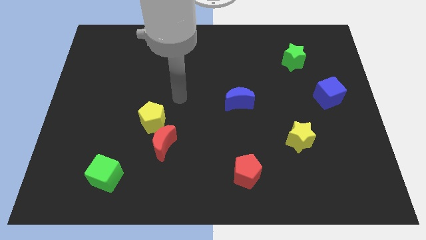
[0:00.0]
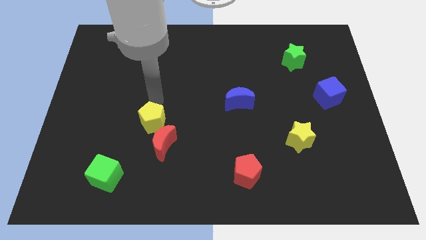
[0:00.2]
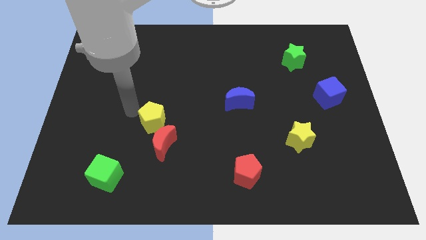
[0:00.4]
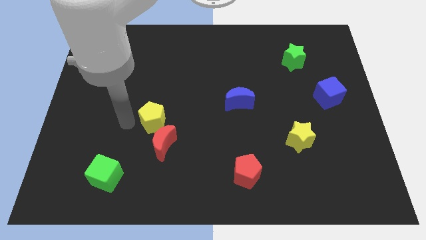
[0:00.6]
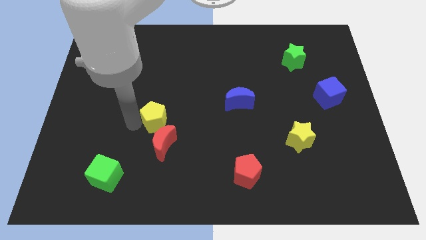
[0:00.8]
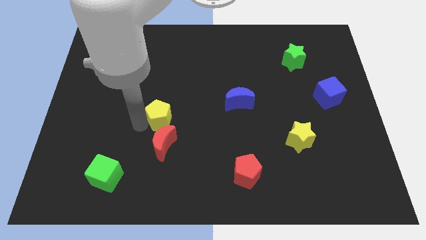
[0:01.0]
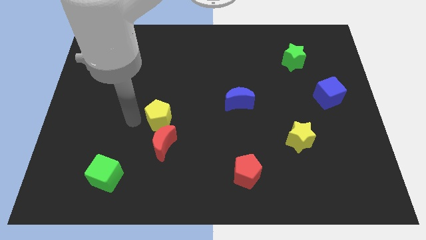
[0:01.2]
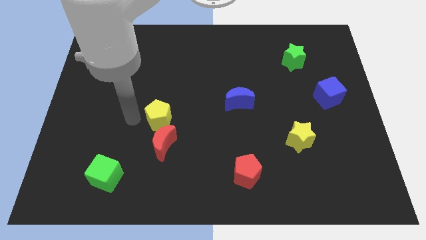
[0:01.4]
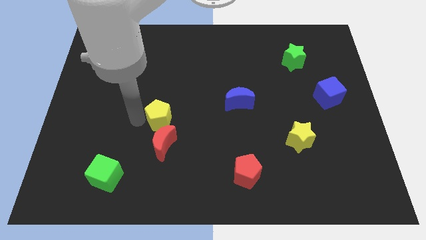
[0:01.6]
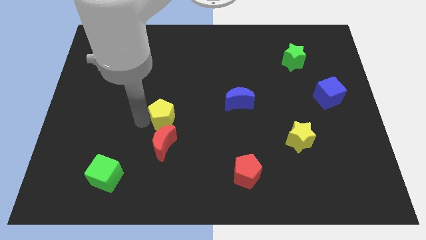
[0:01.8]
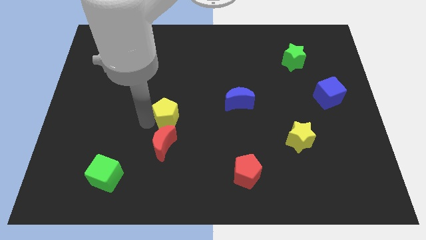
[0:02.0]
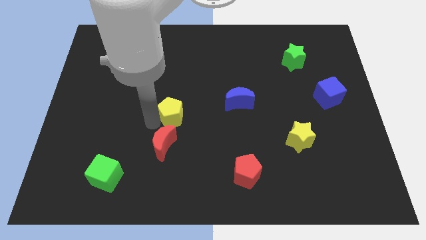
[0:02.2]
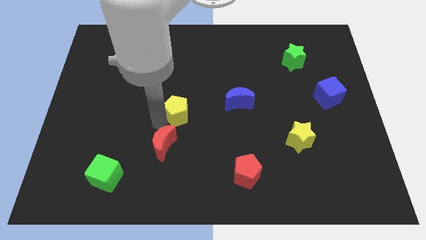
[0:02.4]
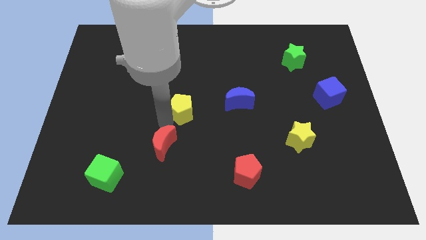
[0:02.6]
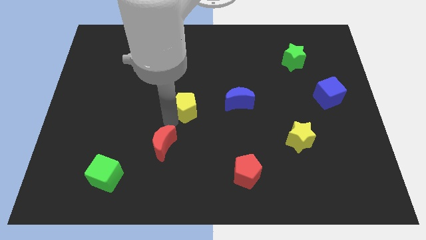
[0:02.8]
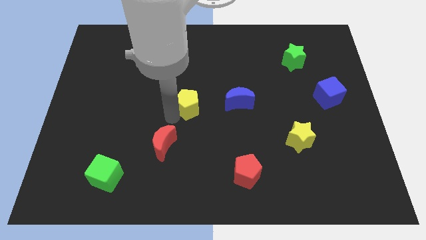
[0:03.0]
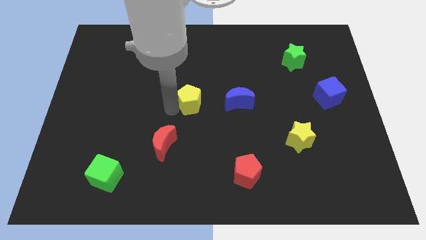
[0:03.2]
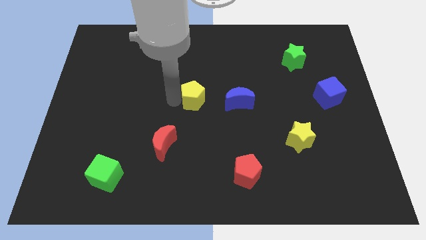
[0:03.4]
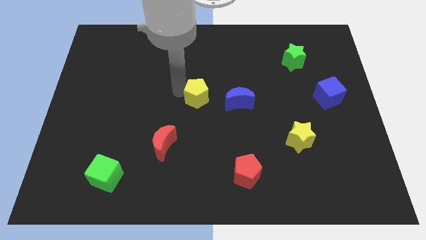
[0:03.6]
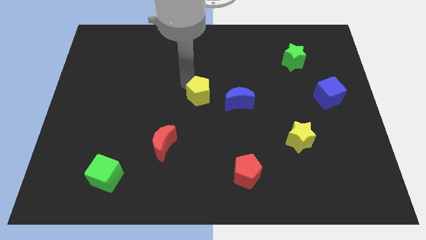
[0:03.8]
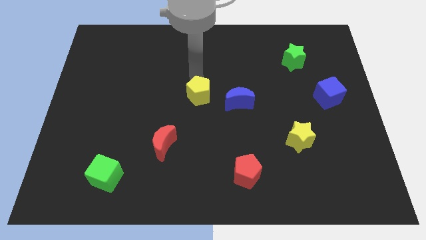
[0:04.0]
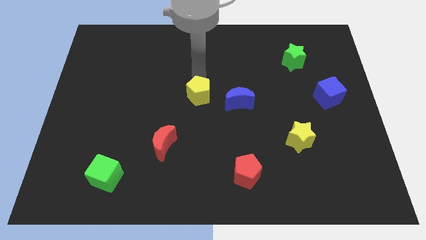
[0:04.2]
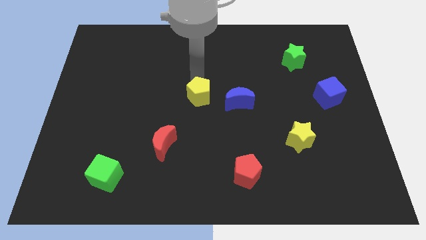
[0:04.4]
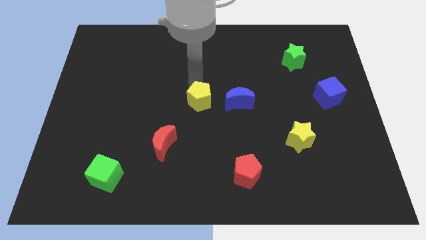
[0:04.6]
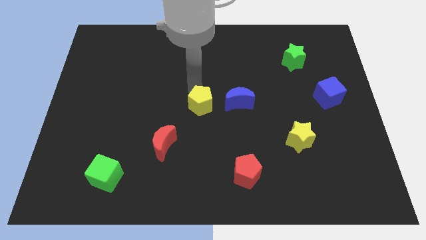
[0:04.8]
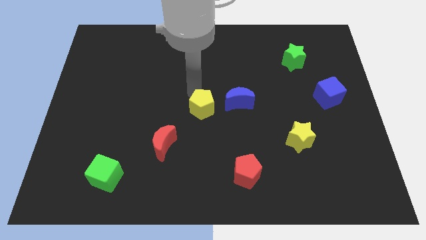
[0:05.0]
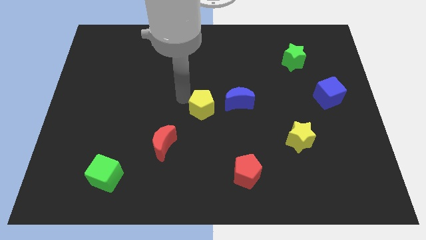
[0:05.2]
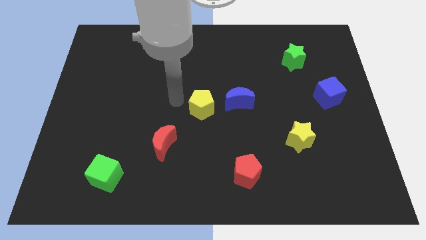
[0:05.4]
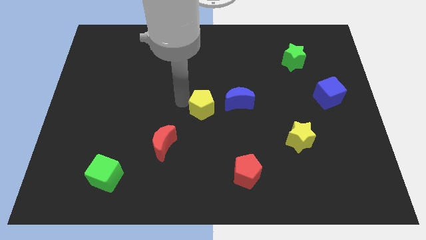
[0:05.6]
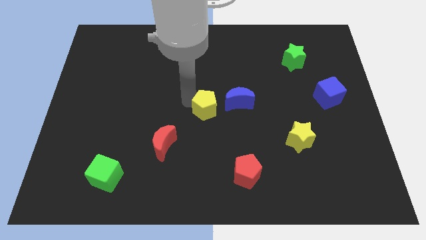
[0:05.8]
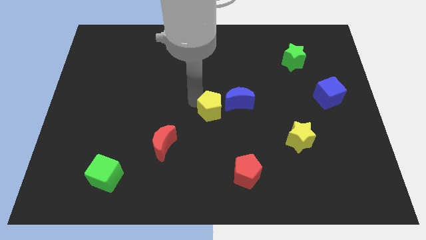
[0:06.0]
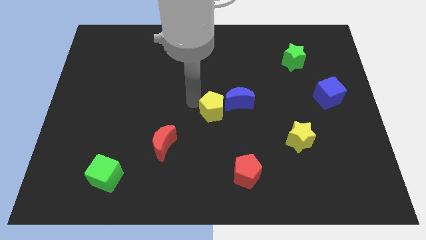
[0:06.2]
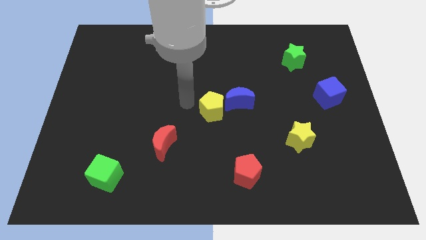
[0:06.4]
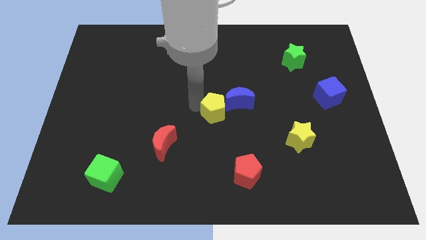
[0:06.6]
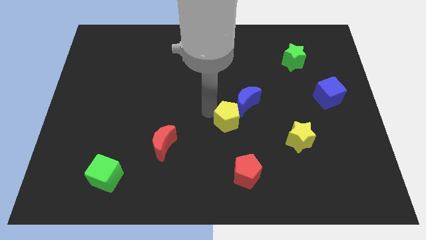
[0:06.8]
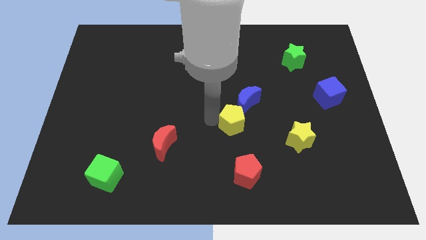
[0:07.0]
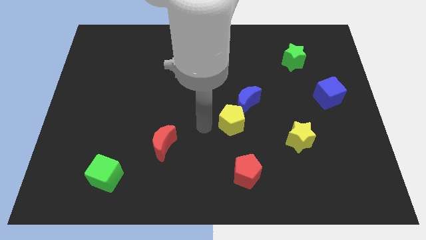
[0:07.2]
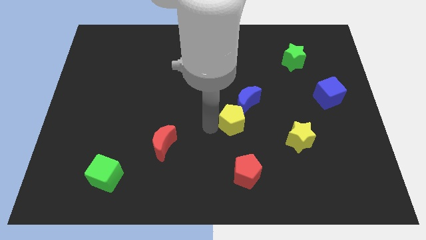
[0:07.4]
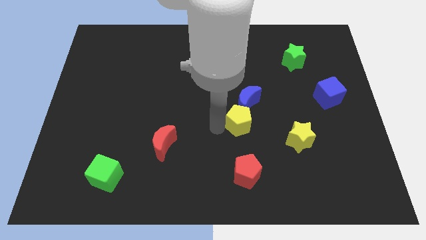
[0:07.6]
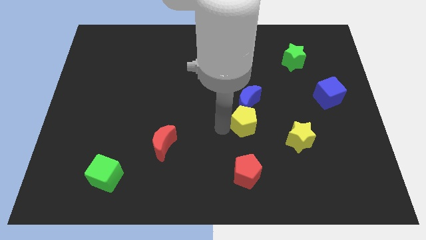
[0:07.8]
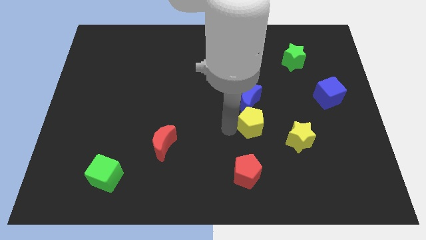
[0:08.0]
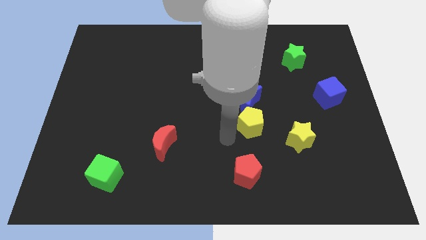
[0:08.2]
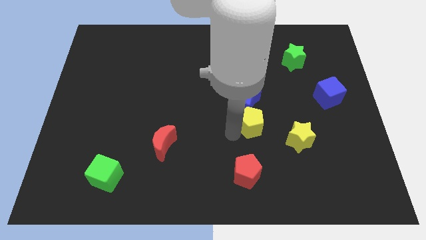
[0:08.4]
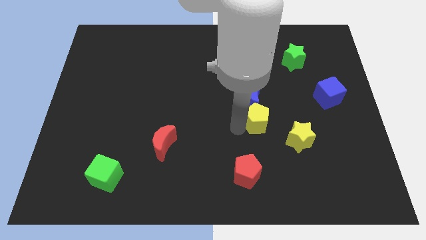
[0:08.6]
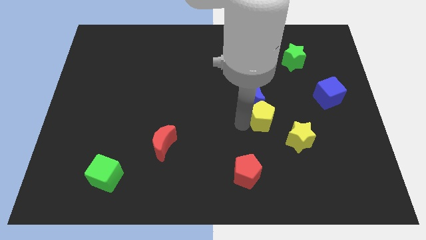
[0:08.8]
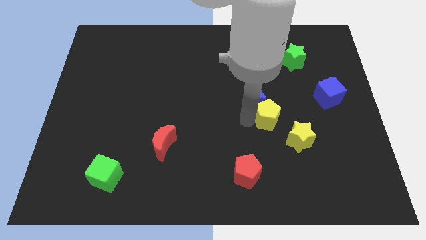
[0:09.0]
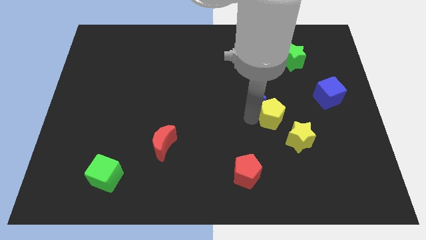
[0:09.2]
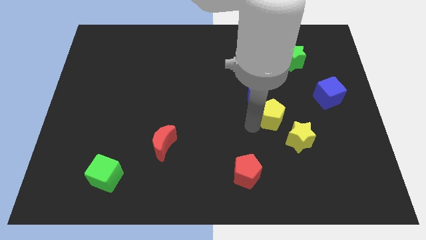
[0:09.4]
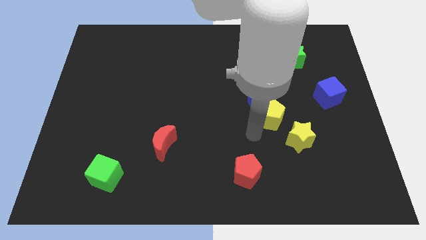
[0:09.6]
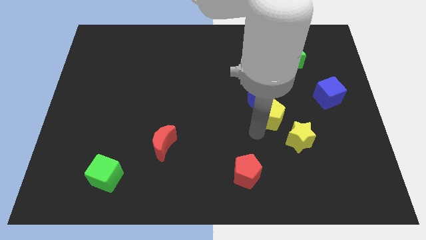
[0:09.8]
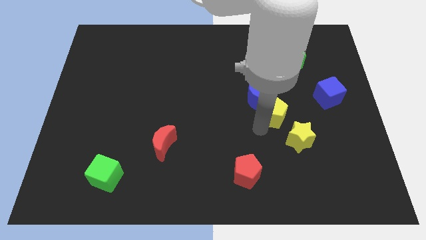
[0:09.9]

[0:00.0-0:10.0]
slide the yellow pentagon above the yellow star

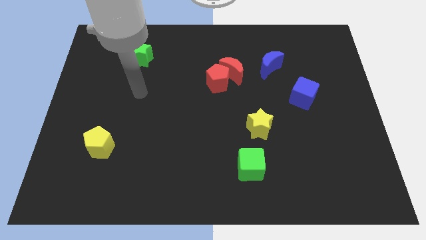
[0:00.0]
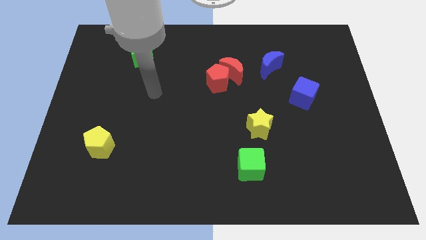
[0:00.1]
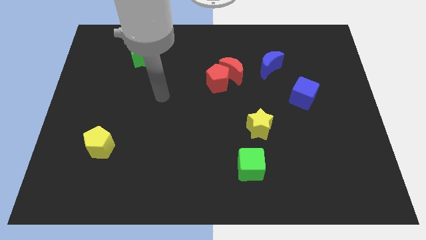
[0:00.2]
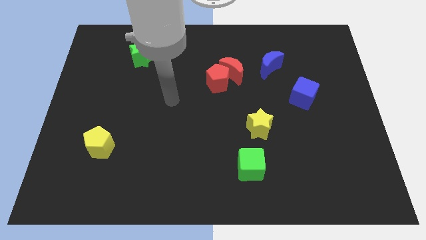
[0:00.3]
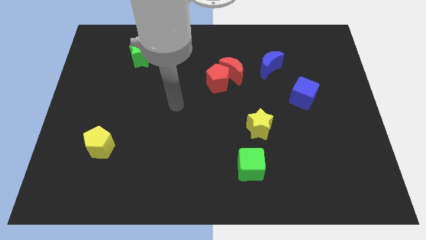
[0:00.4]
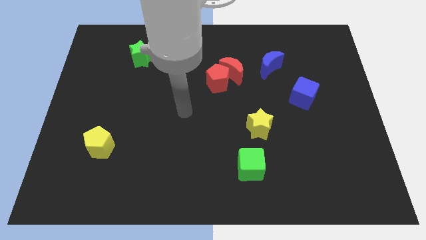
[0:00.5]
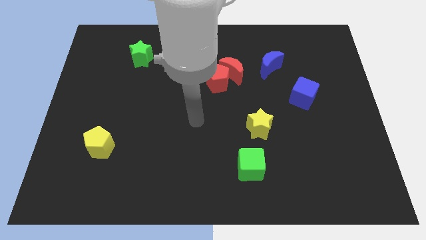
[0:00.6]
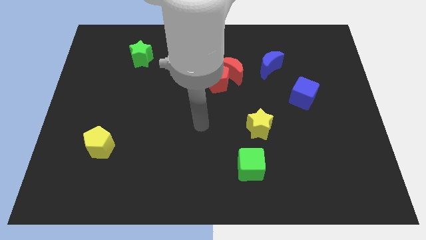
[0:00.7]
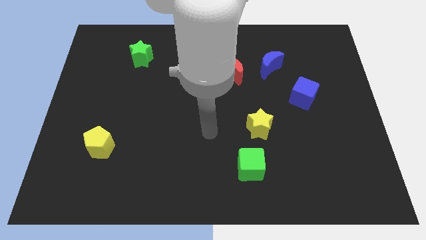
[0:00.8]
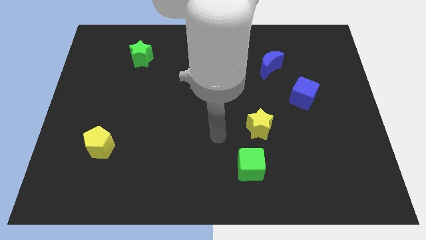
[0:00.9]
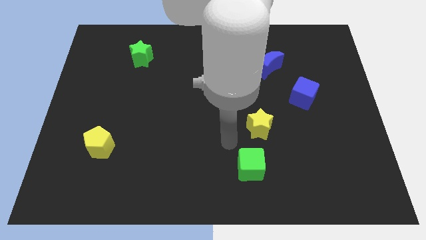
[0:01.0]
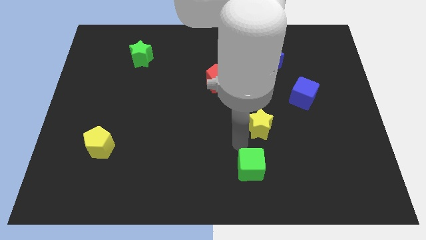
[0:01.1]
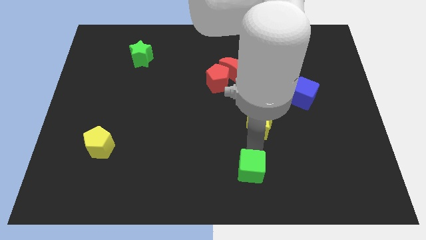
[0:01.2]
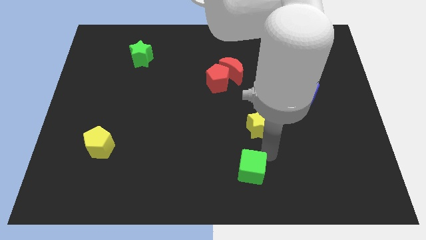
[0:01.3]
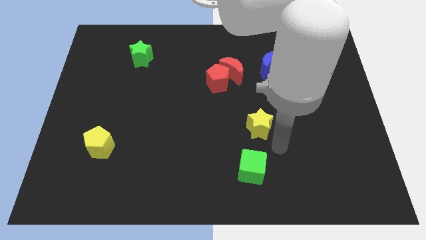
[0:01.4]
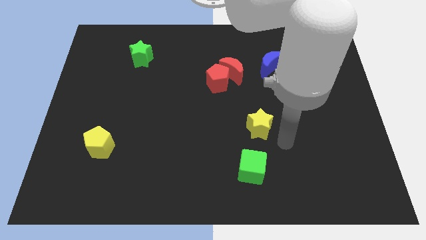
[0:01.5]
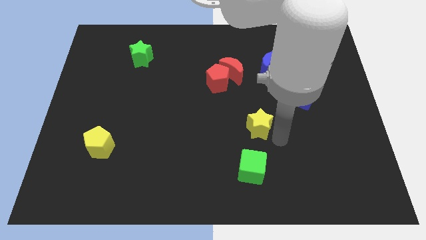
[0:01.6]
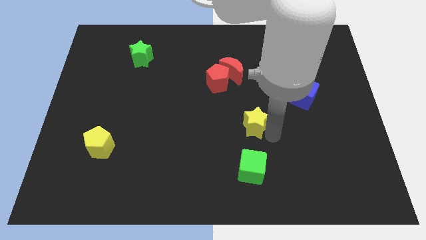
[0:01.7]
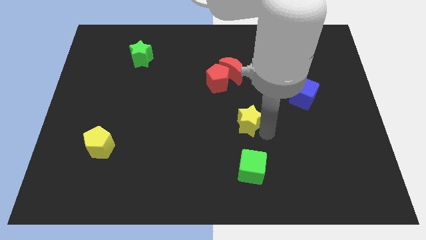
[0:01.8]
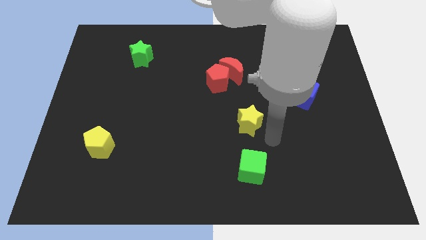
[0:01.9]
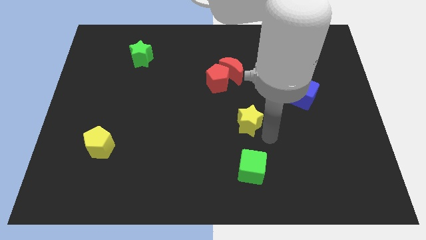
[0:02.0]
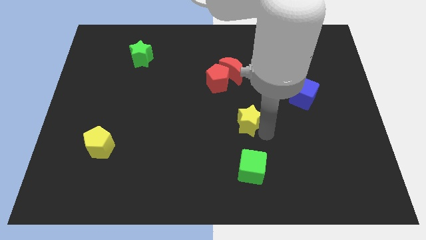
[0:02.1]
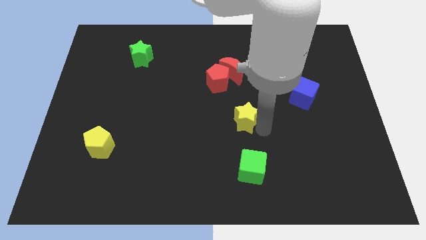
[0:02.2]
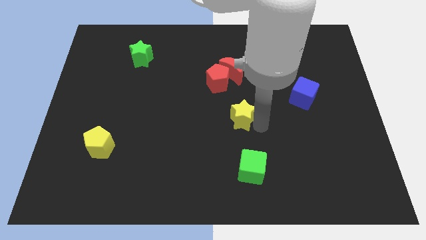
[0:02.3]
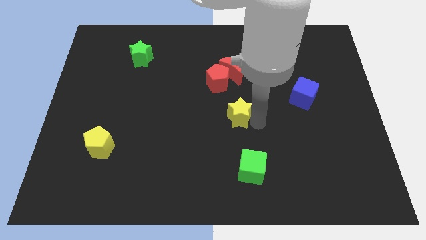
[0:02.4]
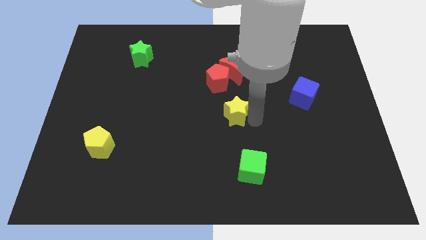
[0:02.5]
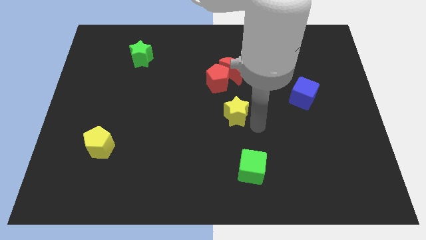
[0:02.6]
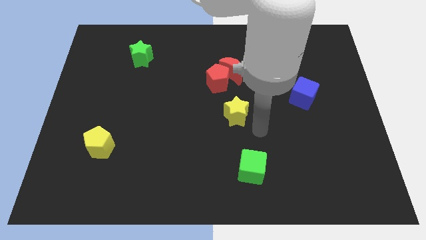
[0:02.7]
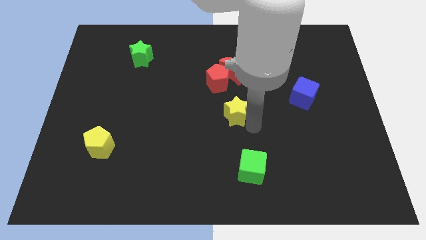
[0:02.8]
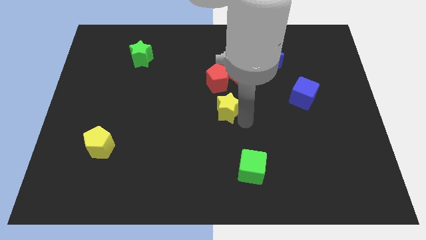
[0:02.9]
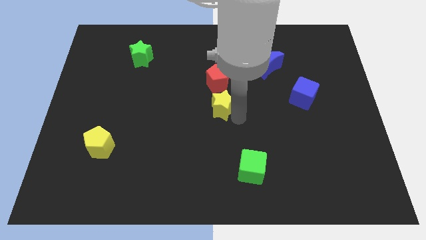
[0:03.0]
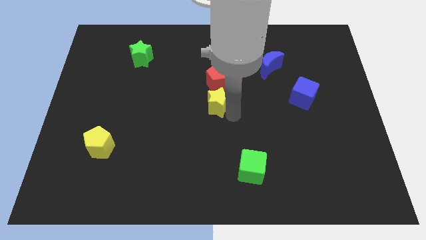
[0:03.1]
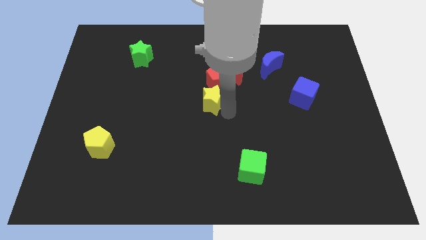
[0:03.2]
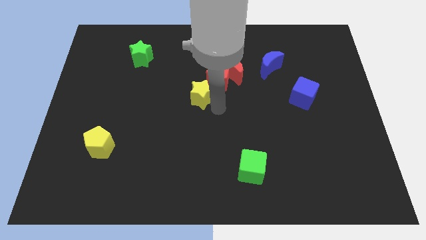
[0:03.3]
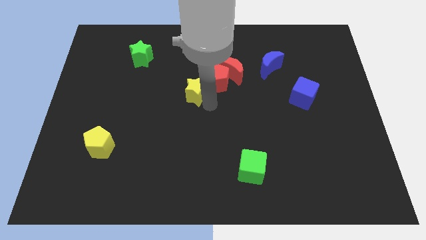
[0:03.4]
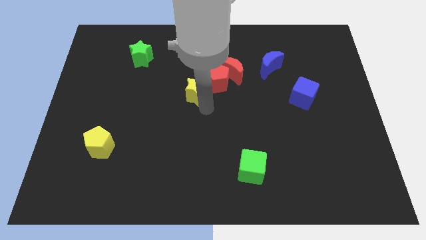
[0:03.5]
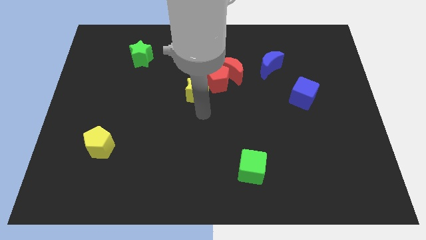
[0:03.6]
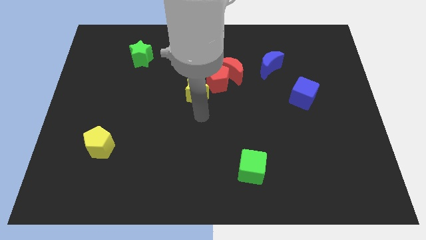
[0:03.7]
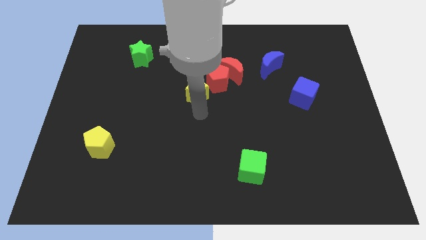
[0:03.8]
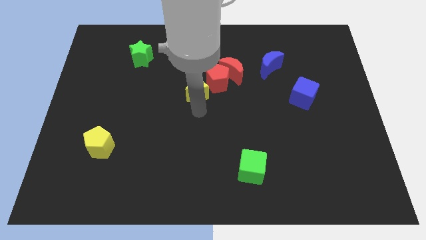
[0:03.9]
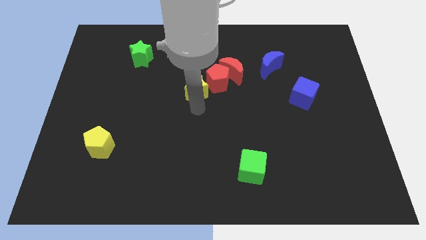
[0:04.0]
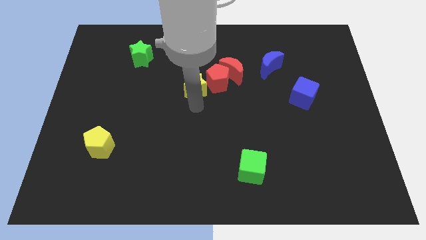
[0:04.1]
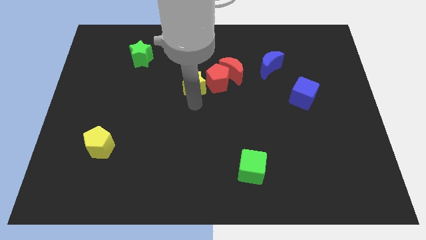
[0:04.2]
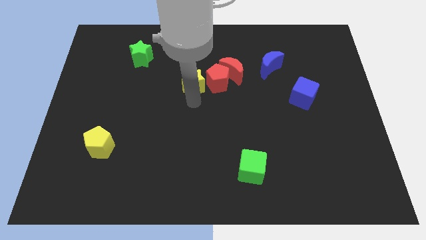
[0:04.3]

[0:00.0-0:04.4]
move the yellow star to the left of the red moon
